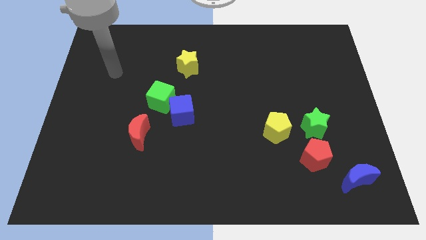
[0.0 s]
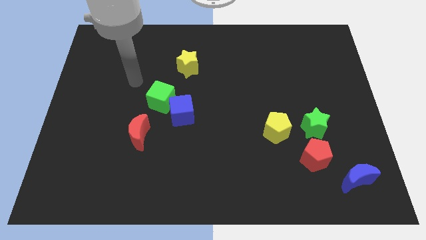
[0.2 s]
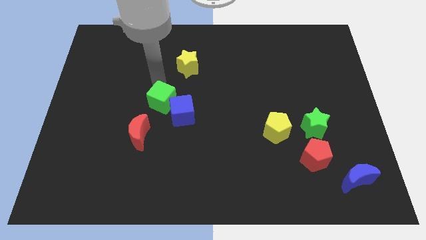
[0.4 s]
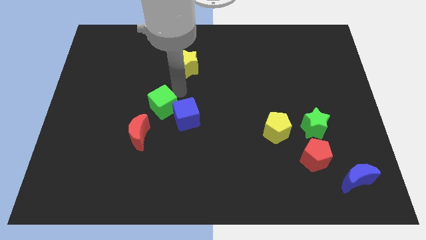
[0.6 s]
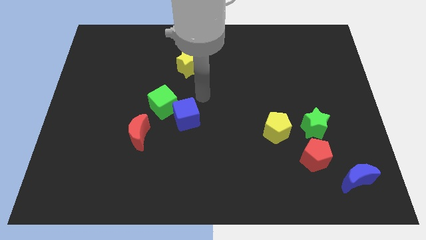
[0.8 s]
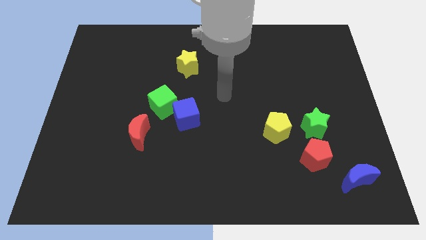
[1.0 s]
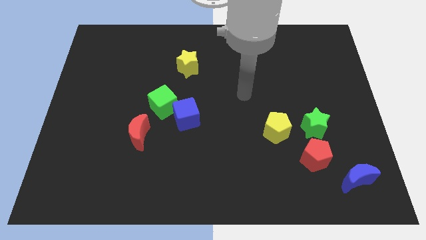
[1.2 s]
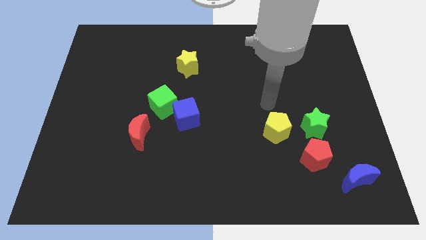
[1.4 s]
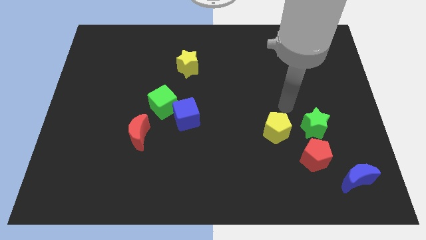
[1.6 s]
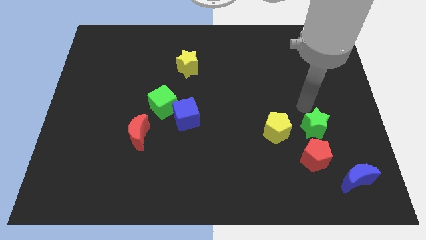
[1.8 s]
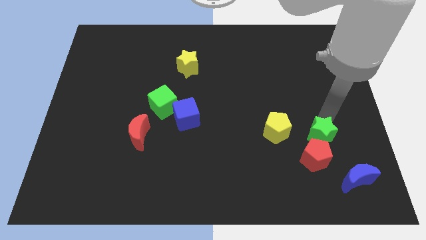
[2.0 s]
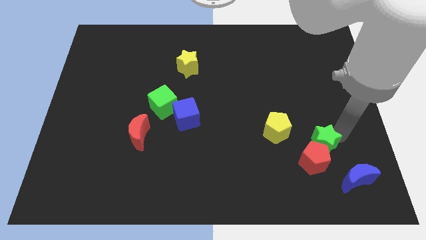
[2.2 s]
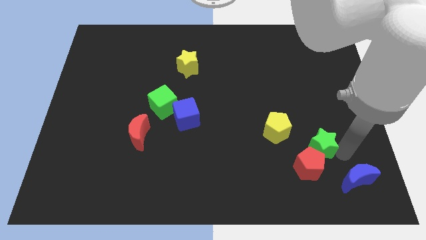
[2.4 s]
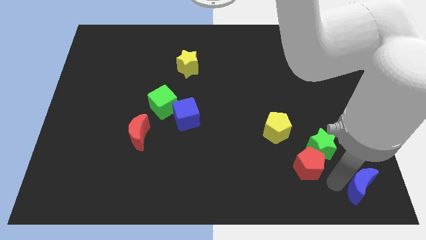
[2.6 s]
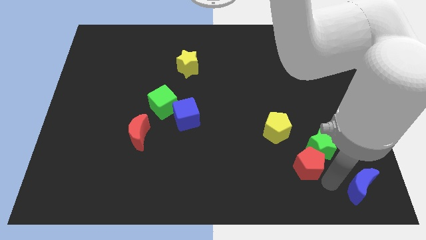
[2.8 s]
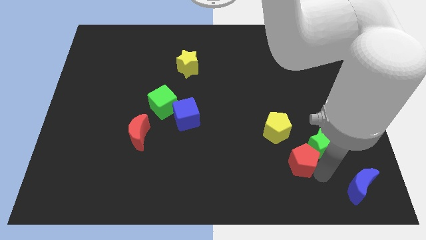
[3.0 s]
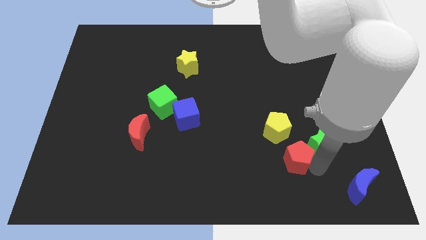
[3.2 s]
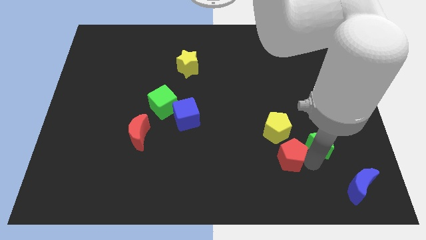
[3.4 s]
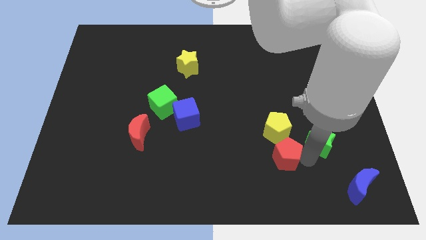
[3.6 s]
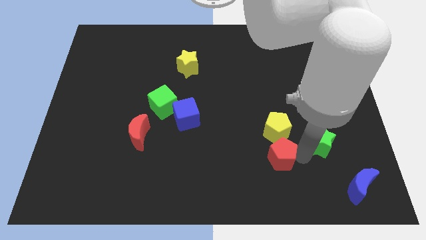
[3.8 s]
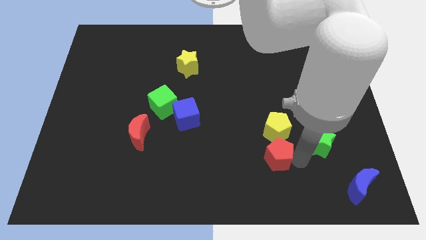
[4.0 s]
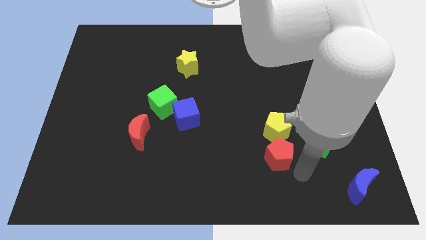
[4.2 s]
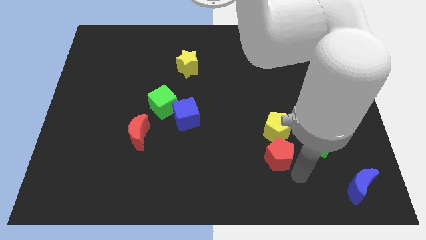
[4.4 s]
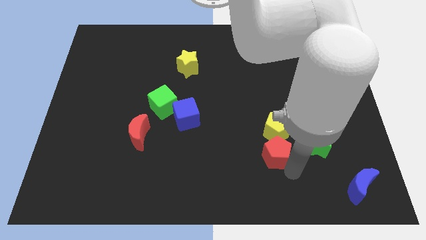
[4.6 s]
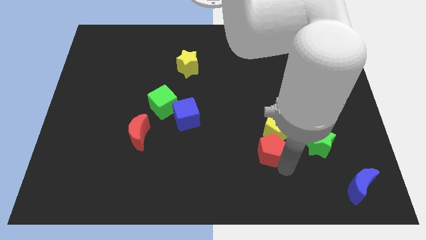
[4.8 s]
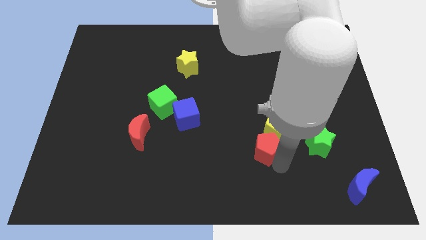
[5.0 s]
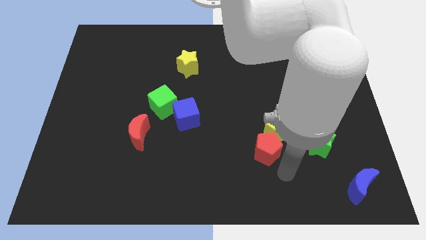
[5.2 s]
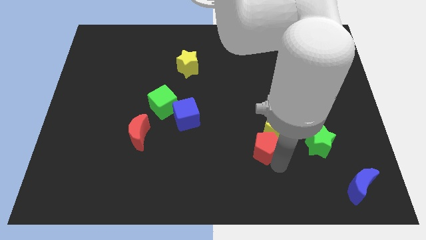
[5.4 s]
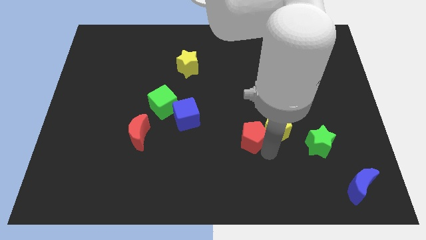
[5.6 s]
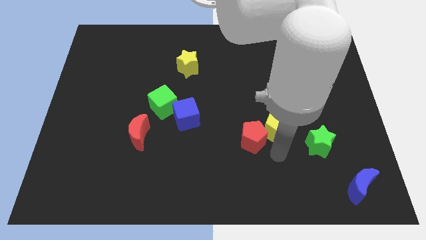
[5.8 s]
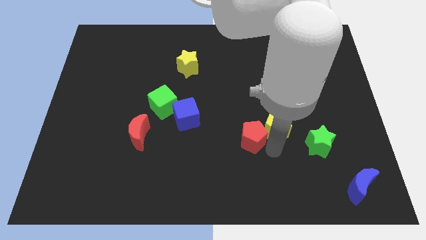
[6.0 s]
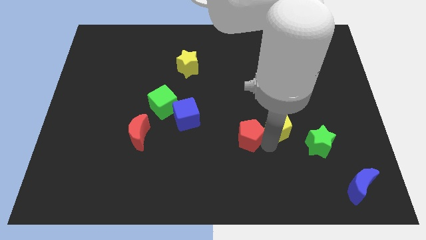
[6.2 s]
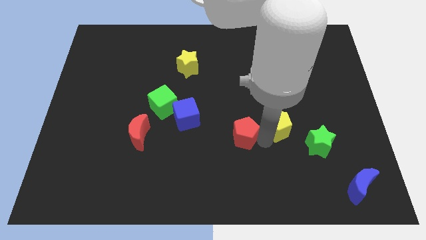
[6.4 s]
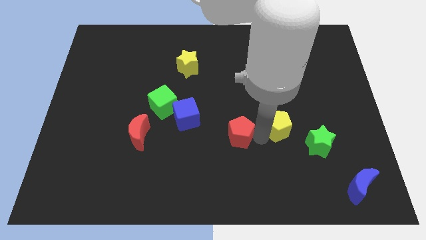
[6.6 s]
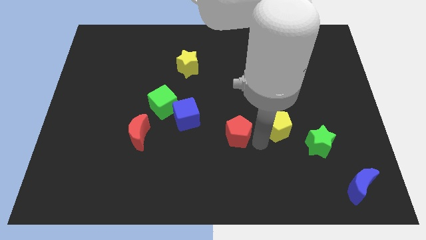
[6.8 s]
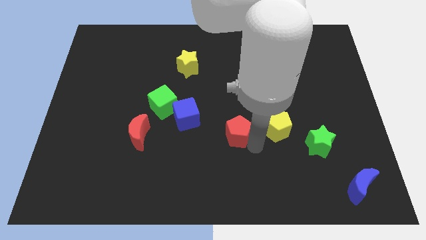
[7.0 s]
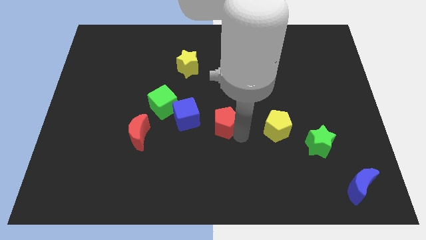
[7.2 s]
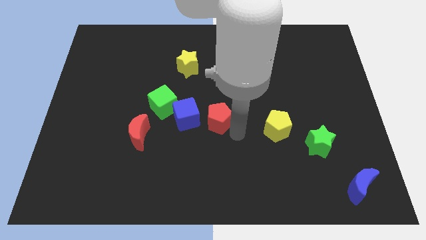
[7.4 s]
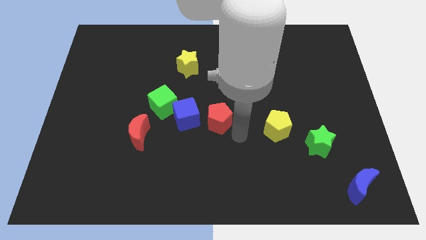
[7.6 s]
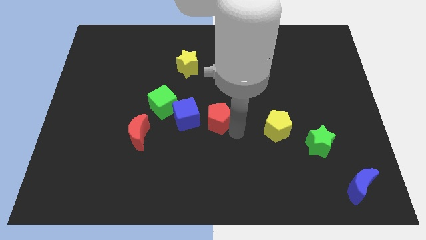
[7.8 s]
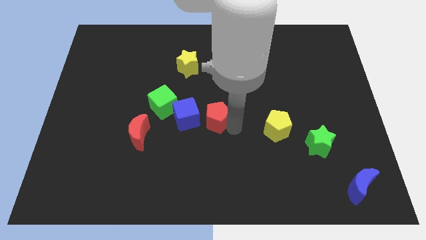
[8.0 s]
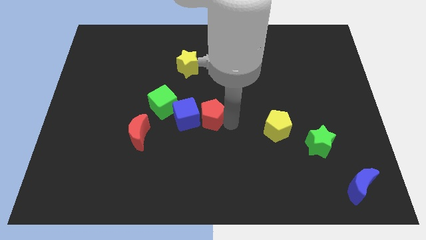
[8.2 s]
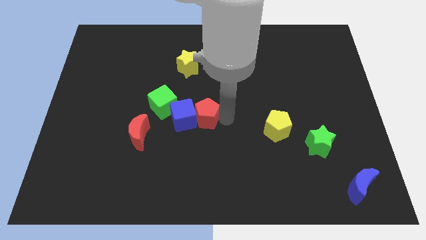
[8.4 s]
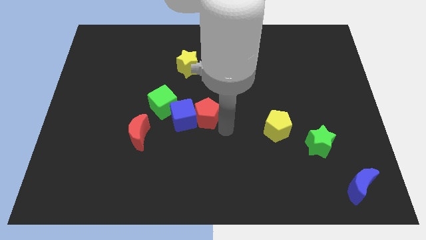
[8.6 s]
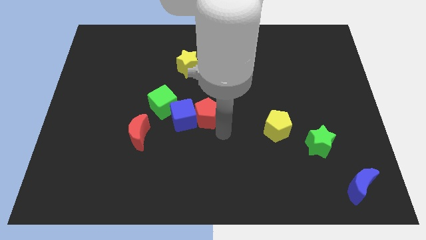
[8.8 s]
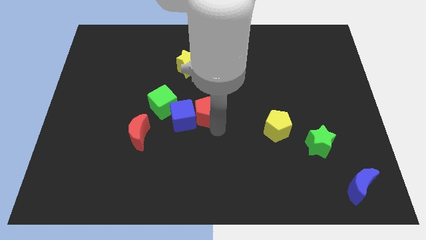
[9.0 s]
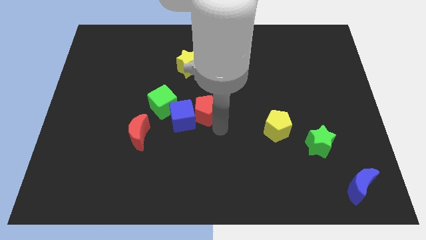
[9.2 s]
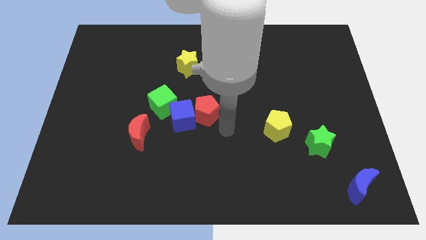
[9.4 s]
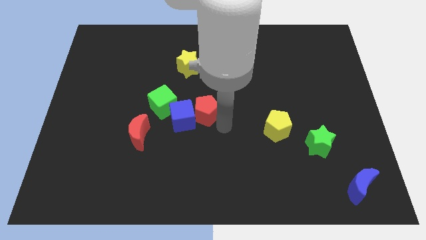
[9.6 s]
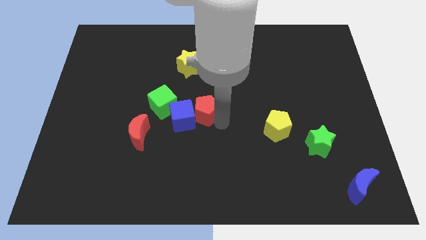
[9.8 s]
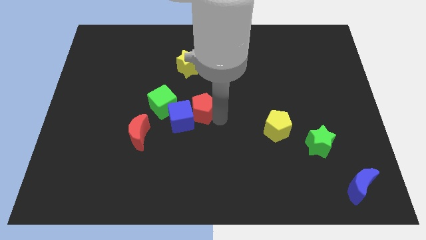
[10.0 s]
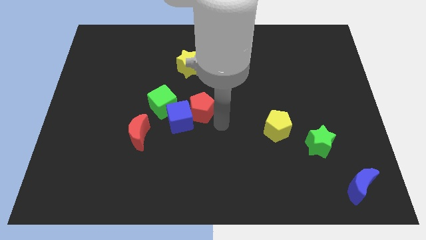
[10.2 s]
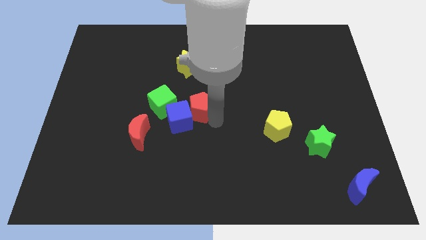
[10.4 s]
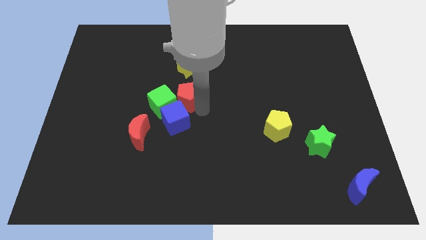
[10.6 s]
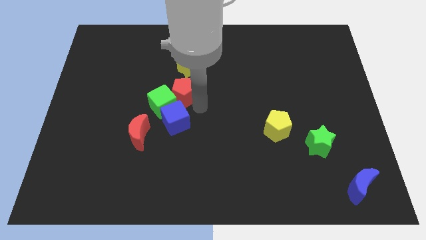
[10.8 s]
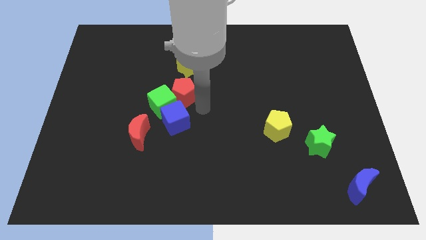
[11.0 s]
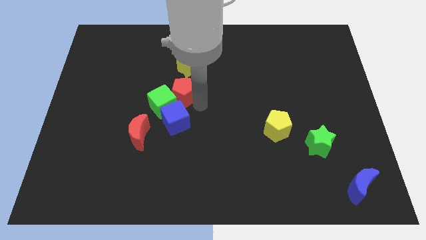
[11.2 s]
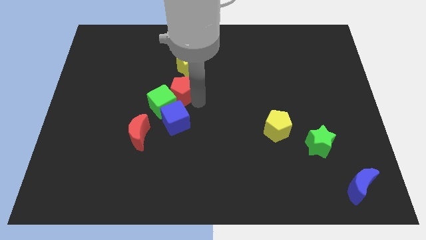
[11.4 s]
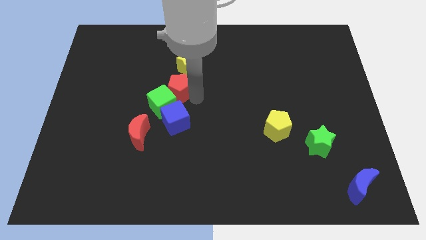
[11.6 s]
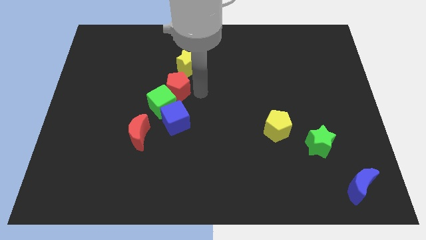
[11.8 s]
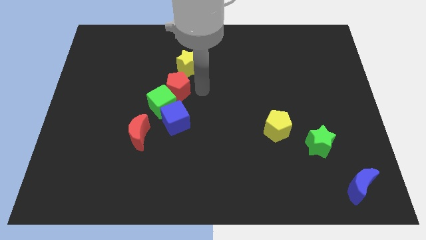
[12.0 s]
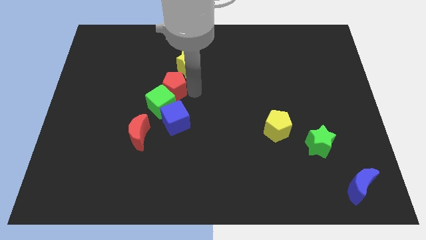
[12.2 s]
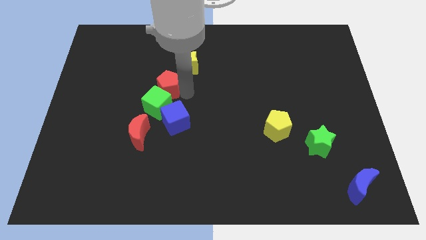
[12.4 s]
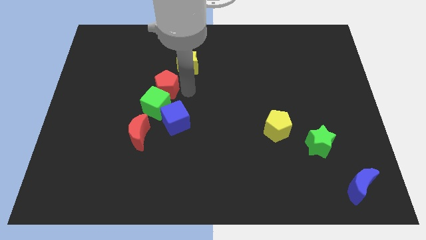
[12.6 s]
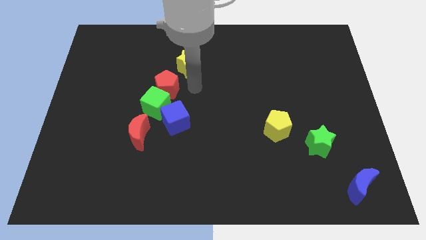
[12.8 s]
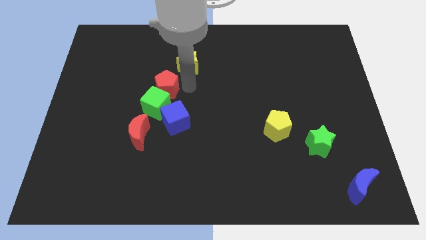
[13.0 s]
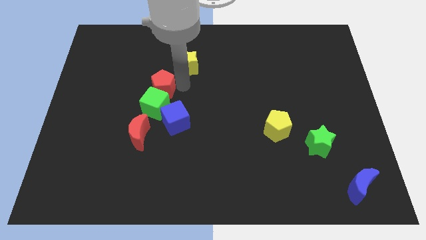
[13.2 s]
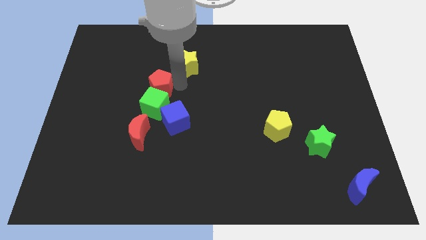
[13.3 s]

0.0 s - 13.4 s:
push the red pentagon to the top left side of the green cube
